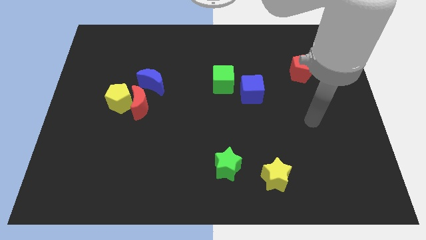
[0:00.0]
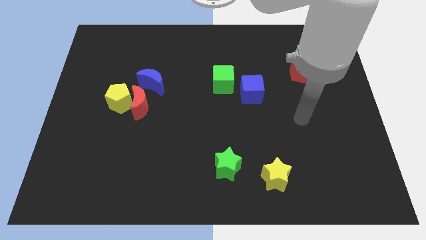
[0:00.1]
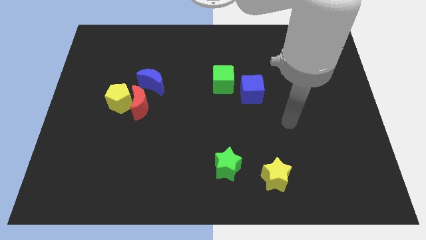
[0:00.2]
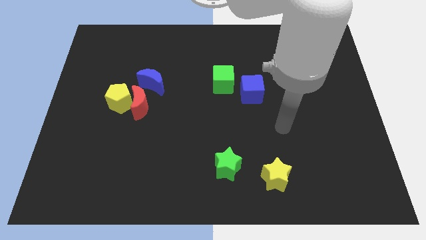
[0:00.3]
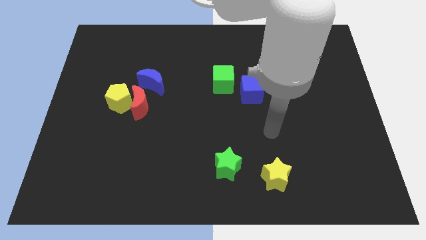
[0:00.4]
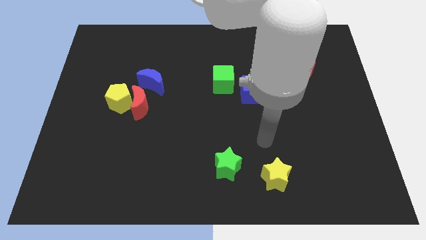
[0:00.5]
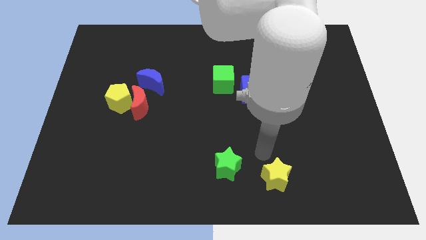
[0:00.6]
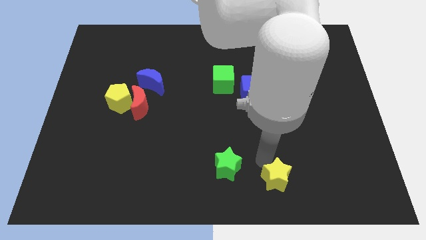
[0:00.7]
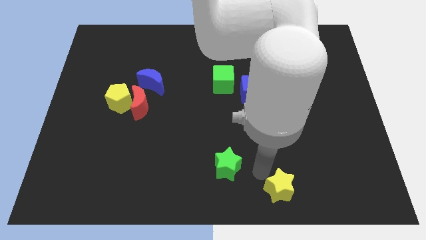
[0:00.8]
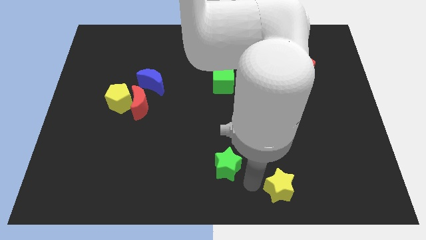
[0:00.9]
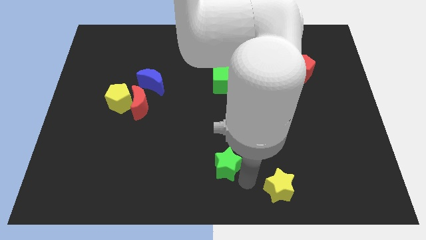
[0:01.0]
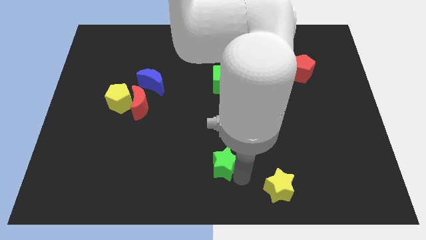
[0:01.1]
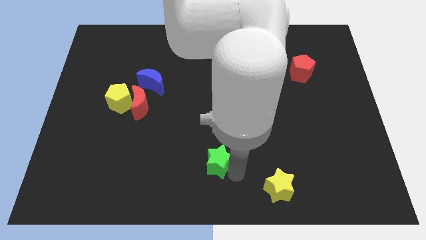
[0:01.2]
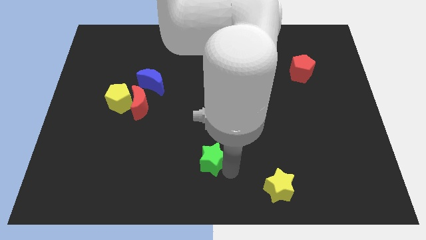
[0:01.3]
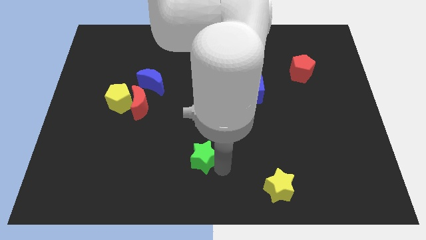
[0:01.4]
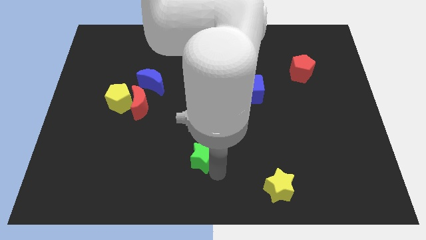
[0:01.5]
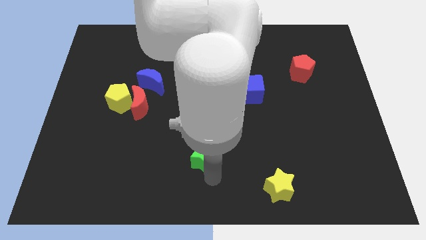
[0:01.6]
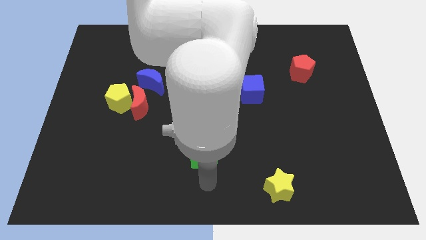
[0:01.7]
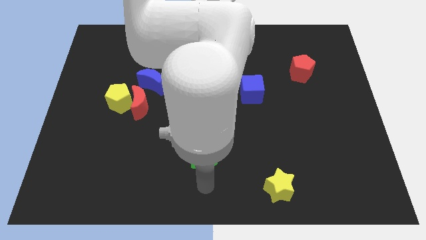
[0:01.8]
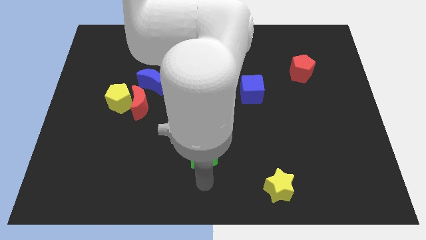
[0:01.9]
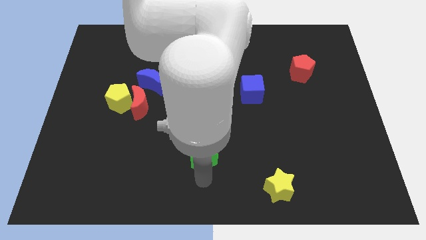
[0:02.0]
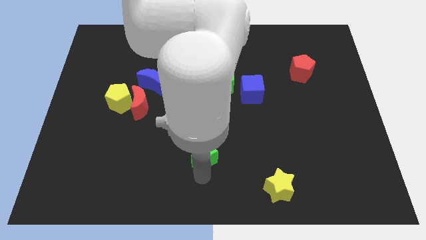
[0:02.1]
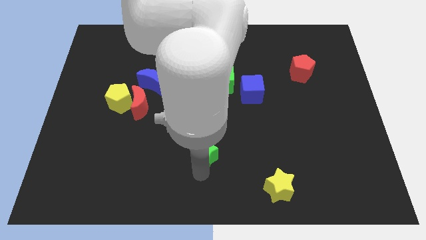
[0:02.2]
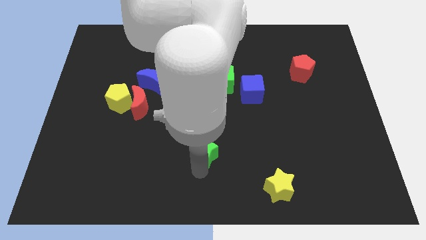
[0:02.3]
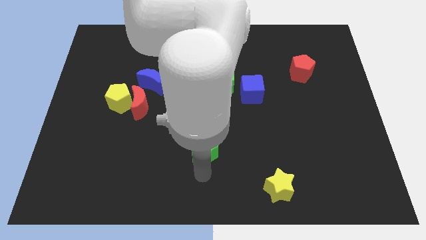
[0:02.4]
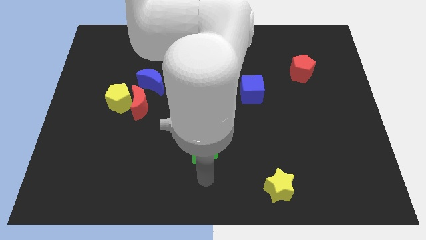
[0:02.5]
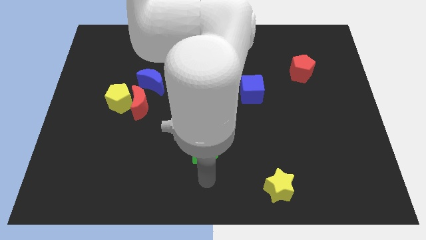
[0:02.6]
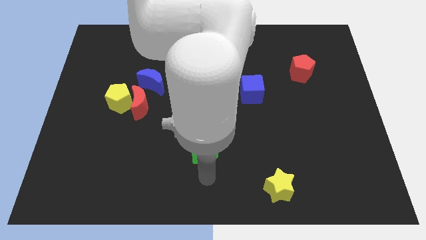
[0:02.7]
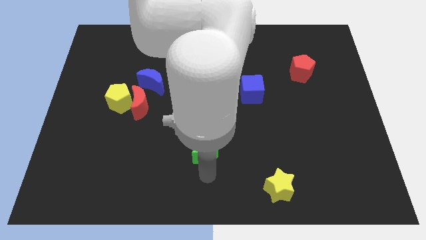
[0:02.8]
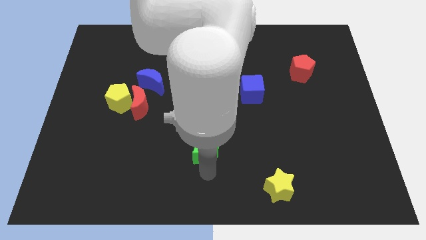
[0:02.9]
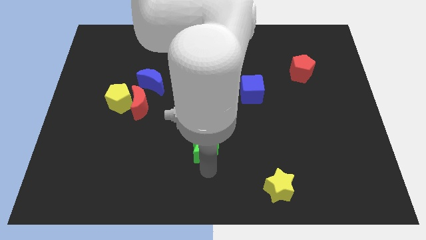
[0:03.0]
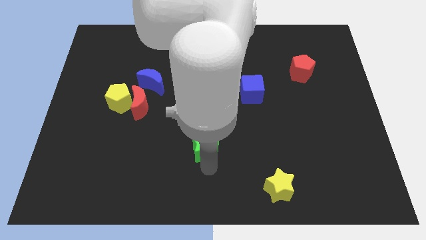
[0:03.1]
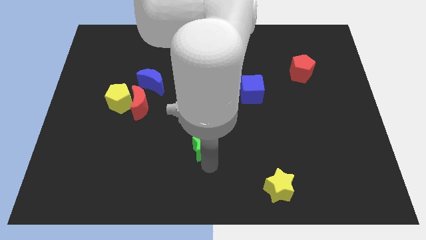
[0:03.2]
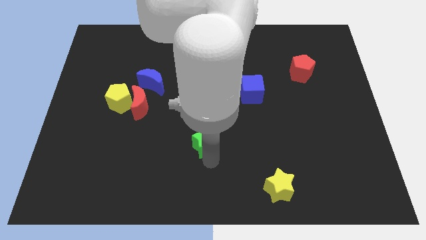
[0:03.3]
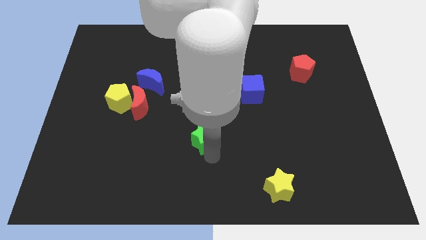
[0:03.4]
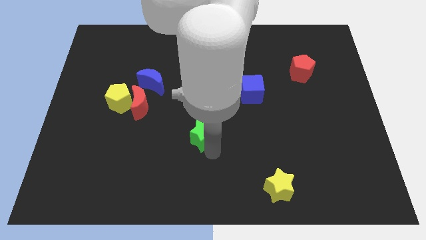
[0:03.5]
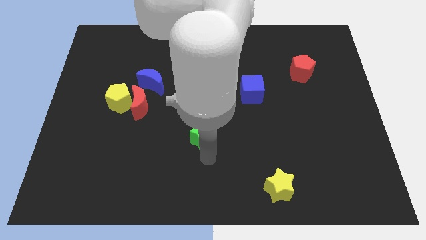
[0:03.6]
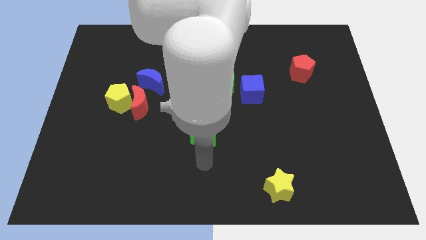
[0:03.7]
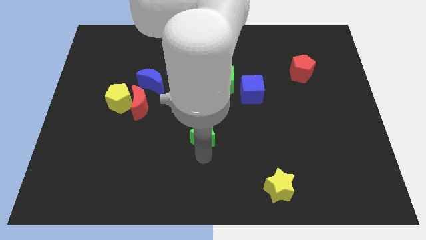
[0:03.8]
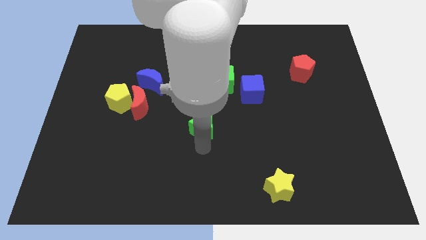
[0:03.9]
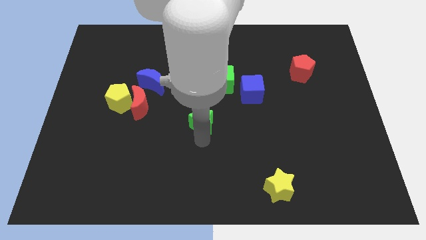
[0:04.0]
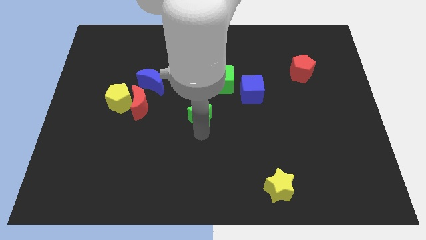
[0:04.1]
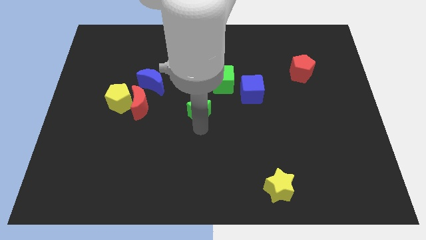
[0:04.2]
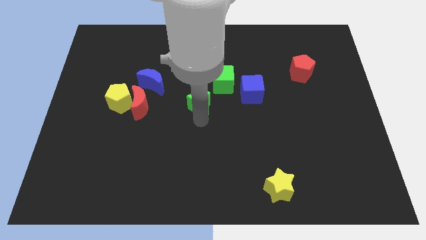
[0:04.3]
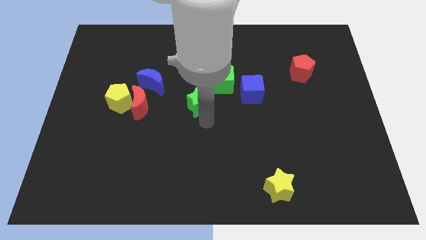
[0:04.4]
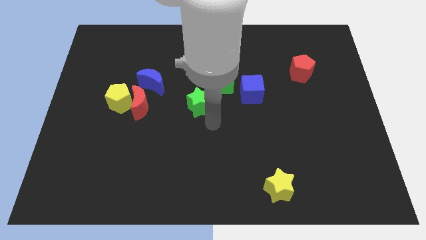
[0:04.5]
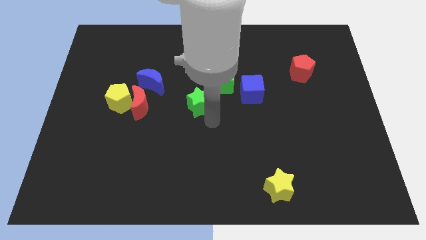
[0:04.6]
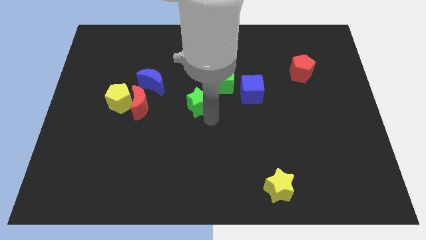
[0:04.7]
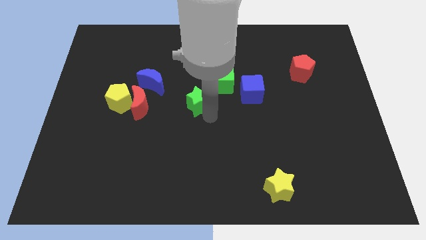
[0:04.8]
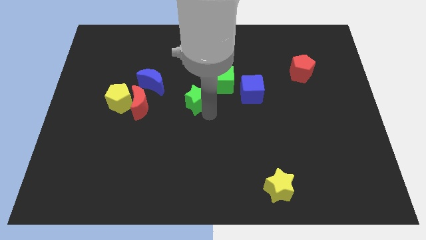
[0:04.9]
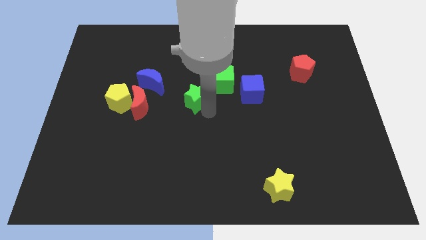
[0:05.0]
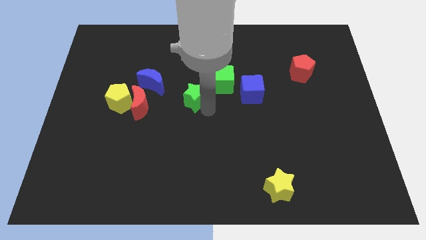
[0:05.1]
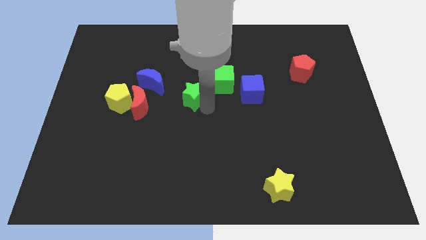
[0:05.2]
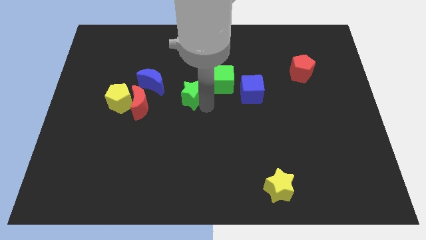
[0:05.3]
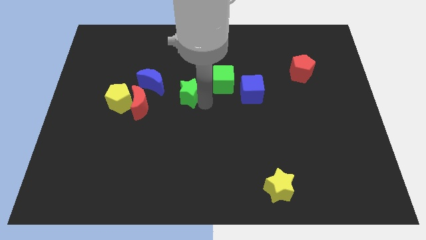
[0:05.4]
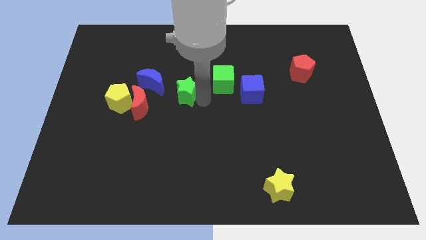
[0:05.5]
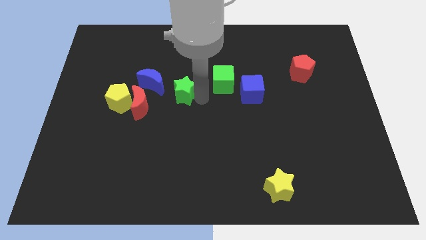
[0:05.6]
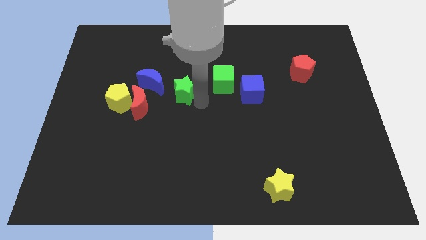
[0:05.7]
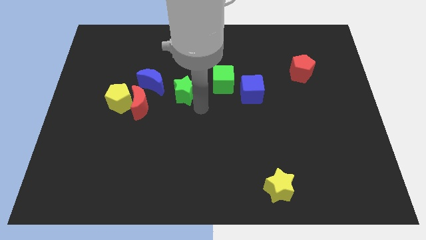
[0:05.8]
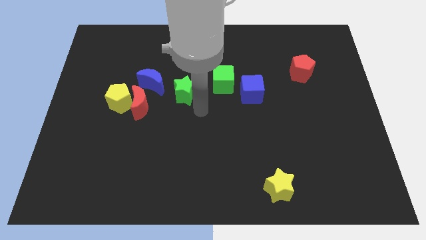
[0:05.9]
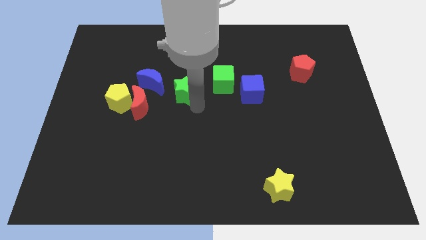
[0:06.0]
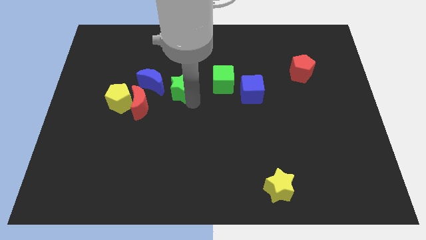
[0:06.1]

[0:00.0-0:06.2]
push the green star up and to the left

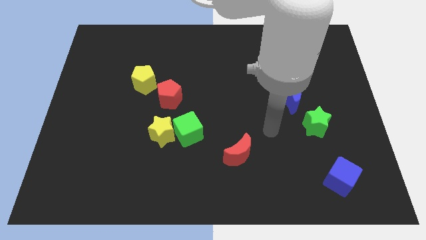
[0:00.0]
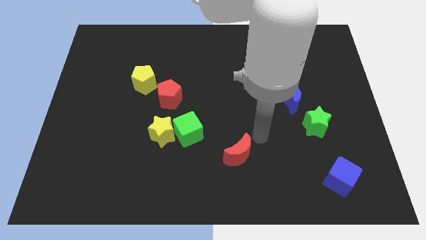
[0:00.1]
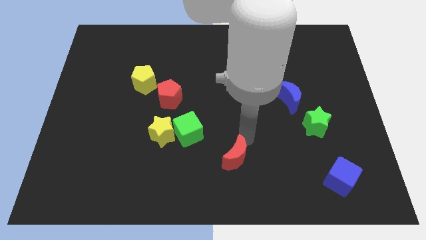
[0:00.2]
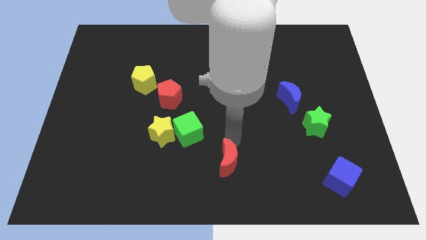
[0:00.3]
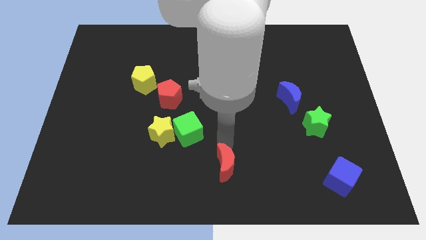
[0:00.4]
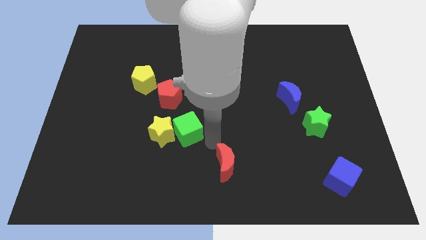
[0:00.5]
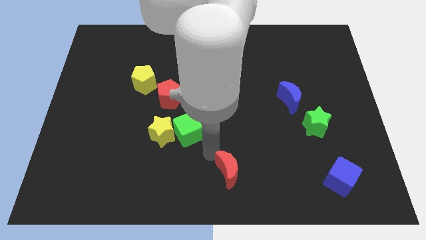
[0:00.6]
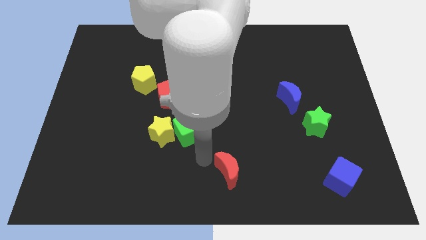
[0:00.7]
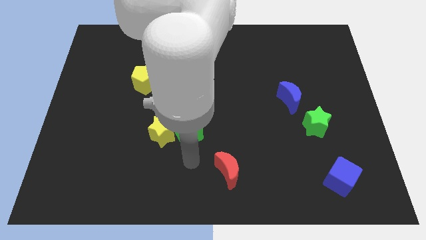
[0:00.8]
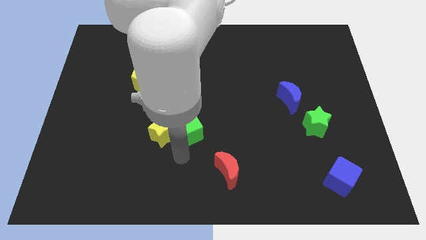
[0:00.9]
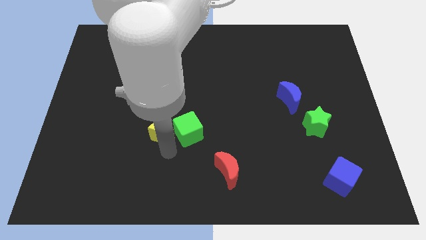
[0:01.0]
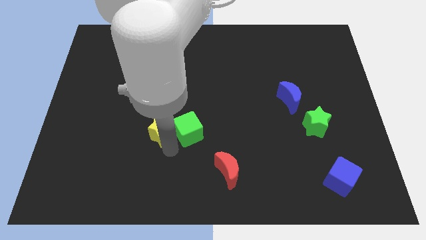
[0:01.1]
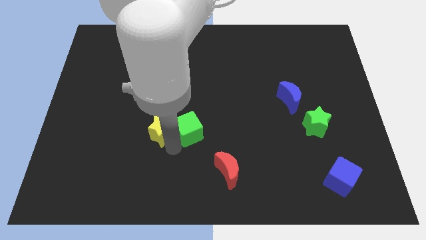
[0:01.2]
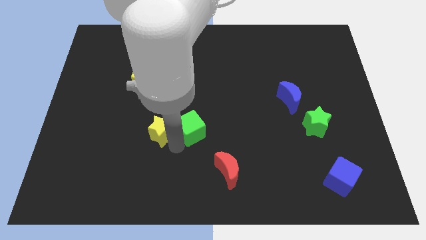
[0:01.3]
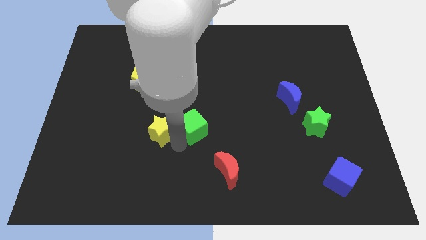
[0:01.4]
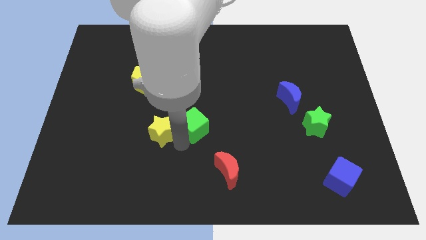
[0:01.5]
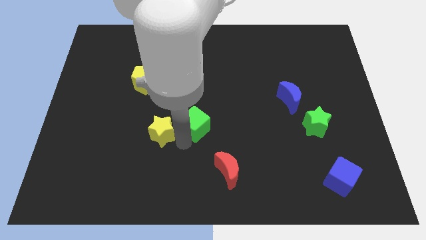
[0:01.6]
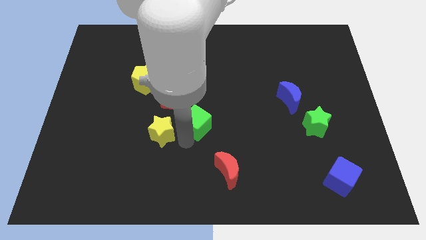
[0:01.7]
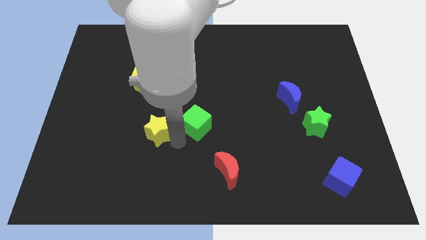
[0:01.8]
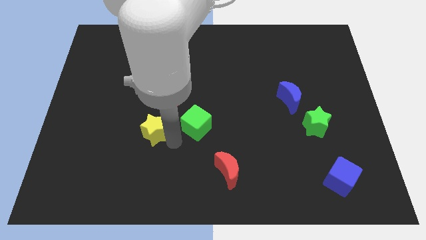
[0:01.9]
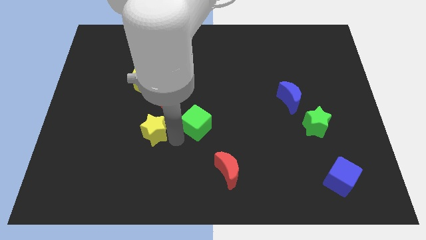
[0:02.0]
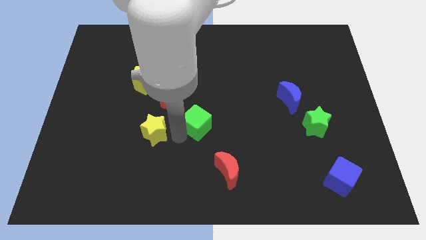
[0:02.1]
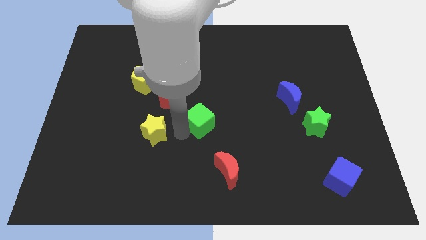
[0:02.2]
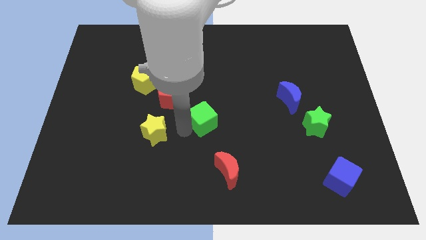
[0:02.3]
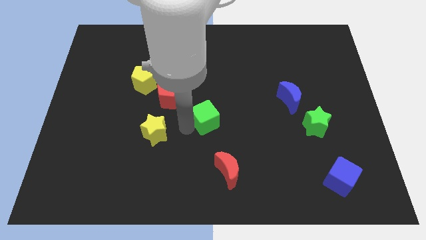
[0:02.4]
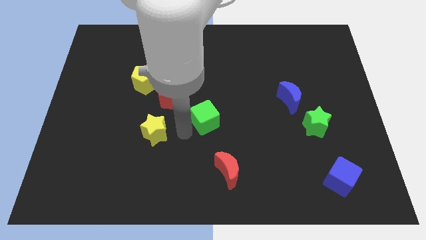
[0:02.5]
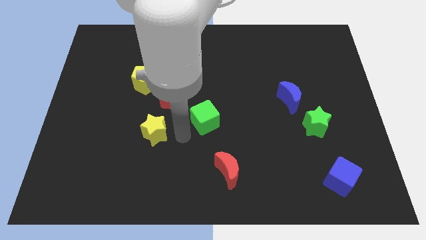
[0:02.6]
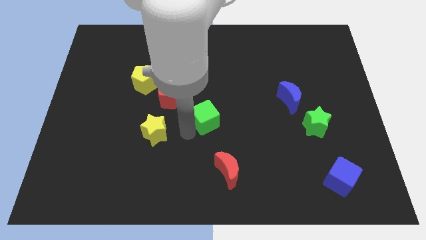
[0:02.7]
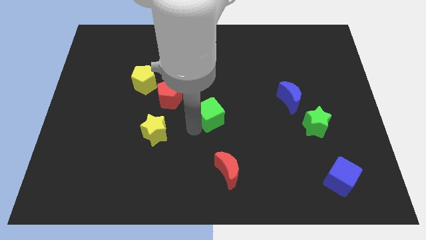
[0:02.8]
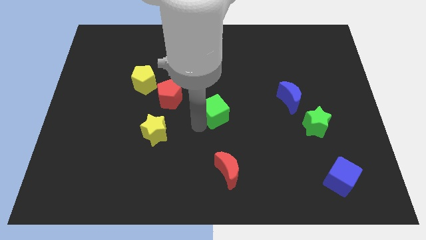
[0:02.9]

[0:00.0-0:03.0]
slightly move the green cube upwards and then right
